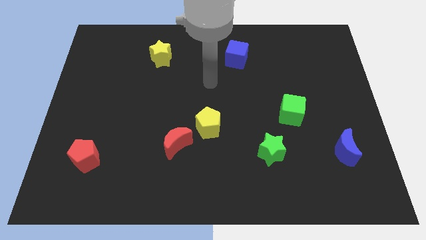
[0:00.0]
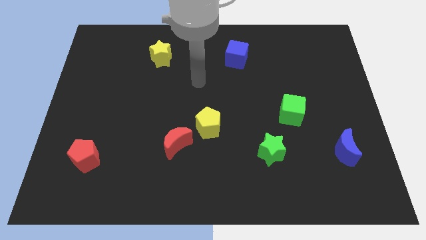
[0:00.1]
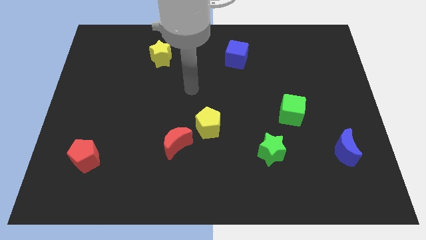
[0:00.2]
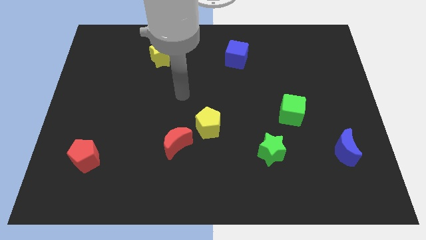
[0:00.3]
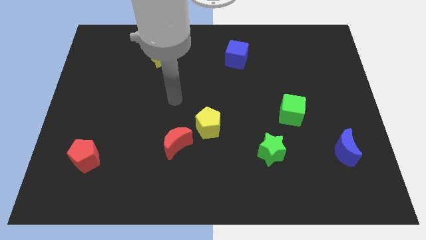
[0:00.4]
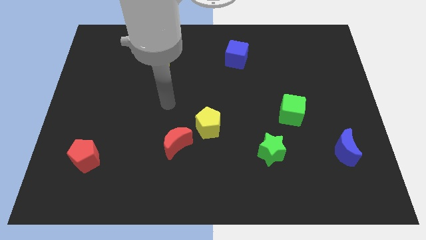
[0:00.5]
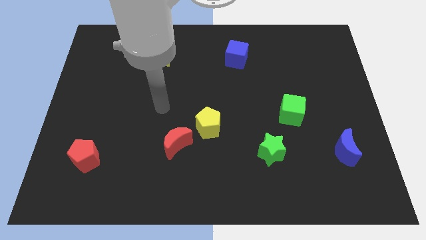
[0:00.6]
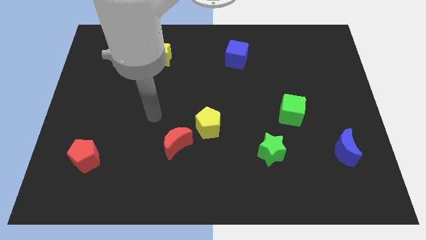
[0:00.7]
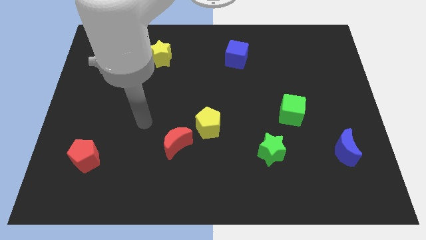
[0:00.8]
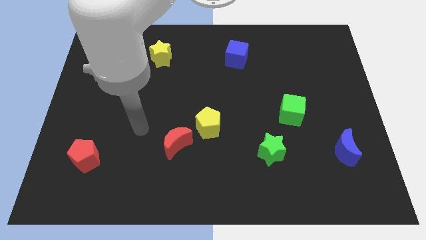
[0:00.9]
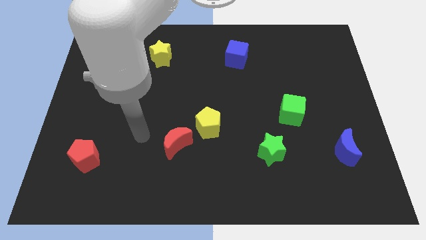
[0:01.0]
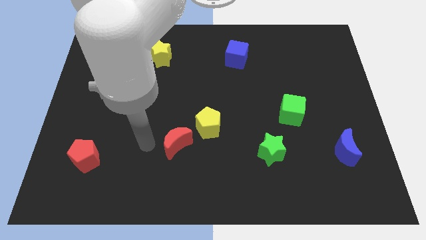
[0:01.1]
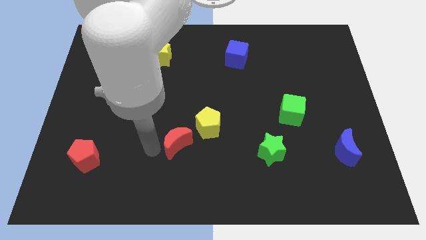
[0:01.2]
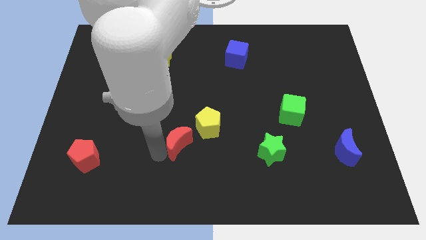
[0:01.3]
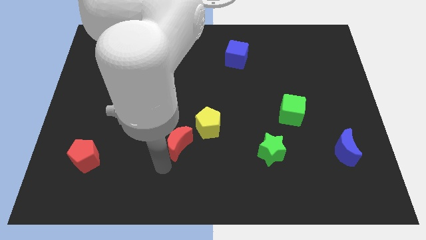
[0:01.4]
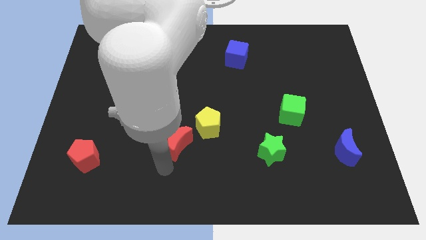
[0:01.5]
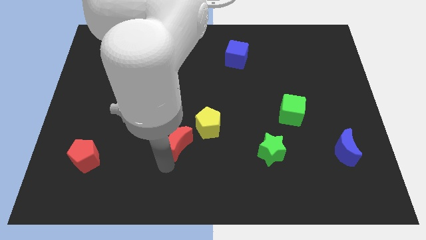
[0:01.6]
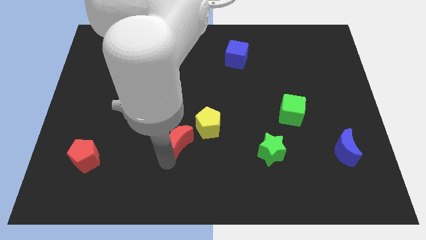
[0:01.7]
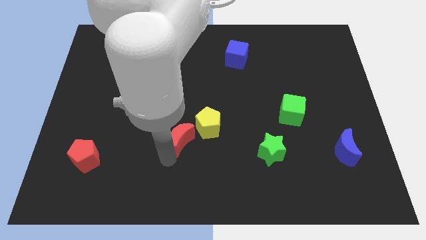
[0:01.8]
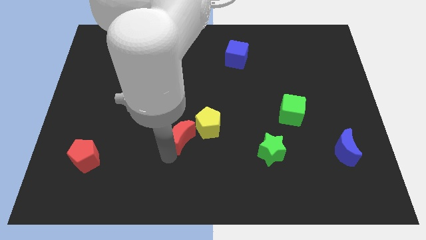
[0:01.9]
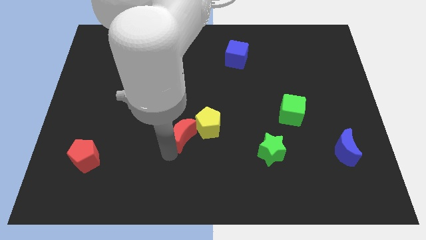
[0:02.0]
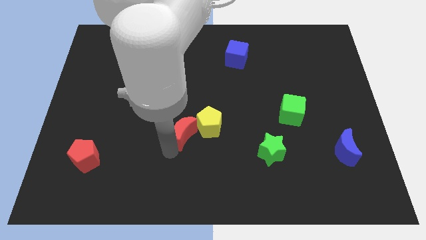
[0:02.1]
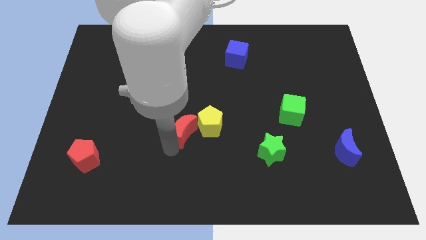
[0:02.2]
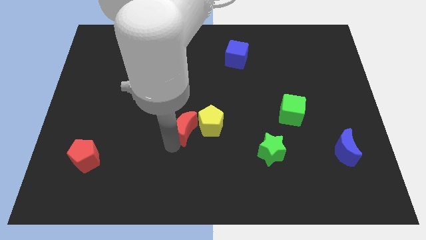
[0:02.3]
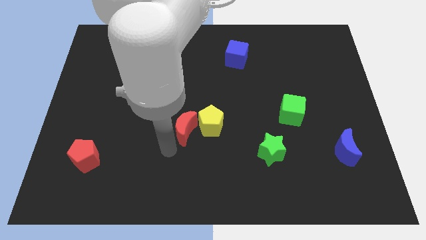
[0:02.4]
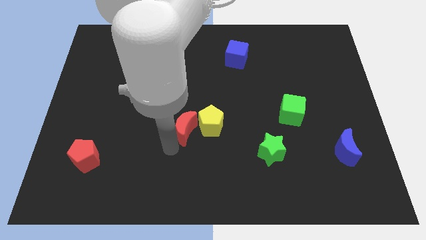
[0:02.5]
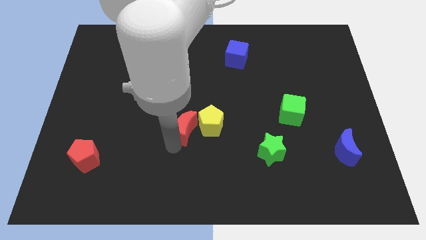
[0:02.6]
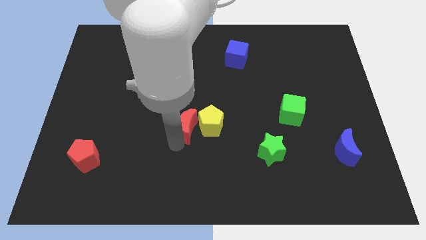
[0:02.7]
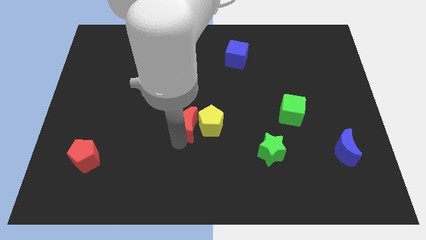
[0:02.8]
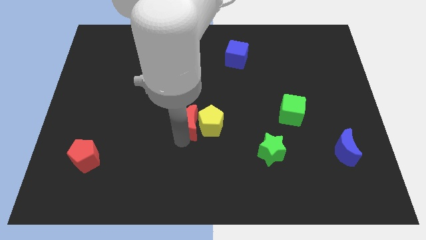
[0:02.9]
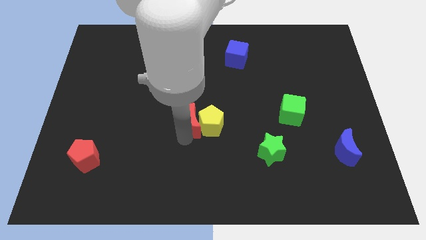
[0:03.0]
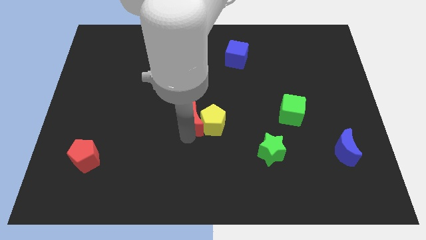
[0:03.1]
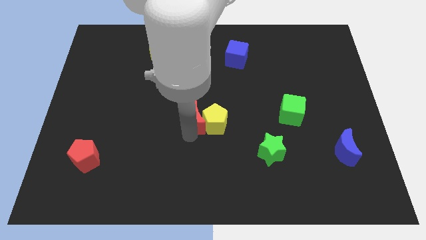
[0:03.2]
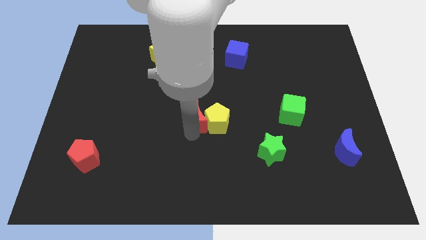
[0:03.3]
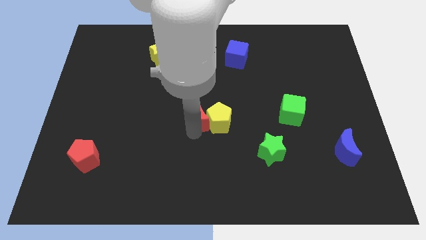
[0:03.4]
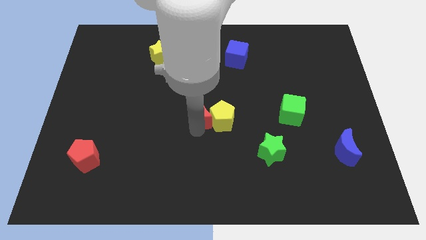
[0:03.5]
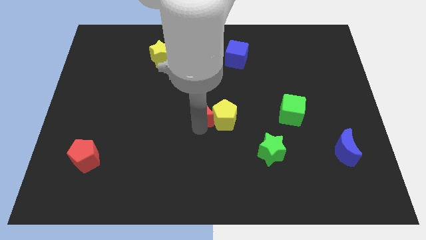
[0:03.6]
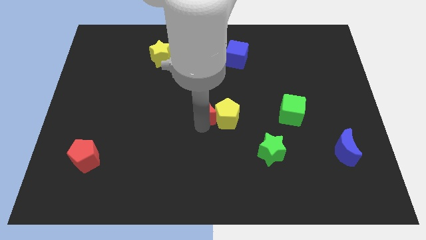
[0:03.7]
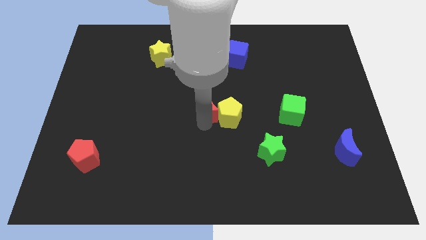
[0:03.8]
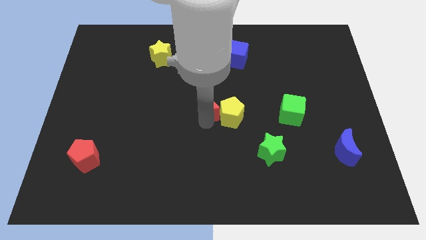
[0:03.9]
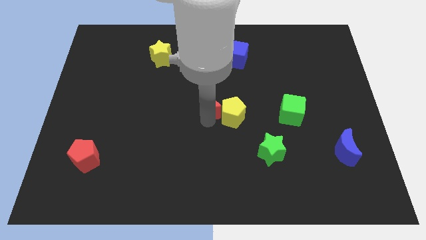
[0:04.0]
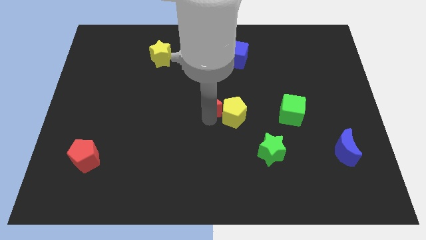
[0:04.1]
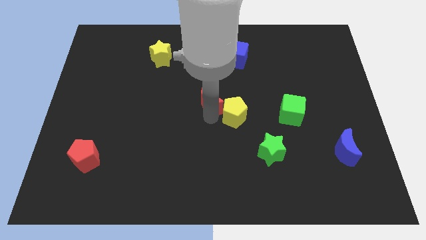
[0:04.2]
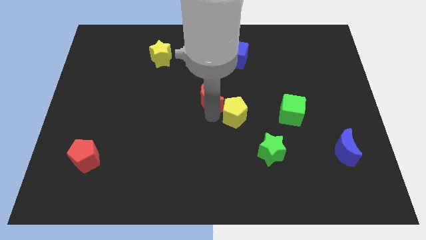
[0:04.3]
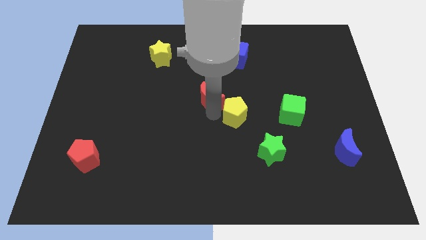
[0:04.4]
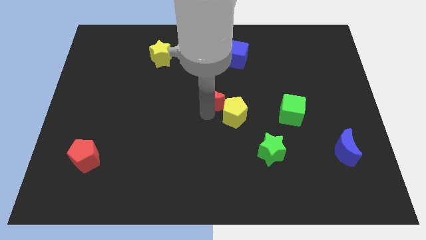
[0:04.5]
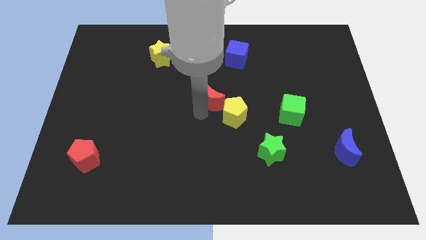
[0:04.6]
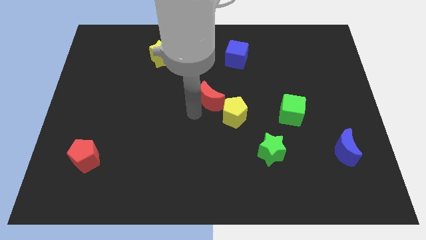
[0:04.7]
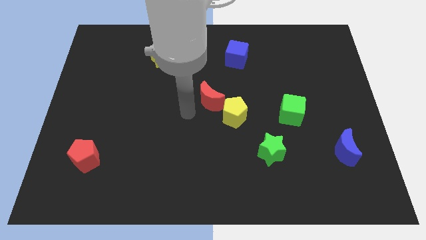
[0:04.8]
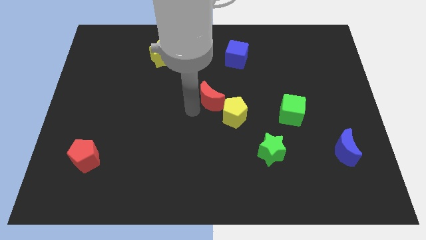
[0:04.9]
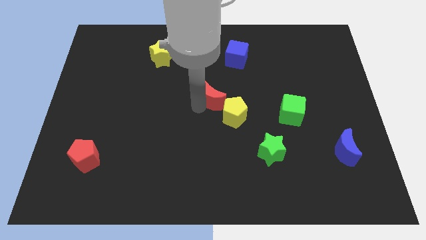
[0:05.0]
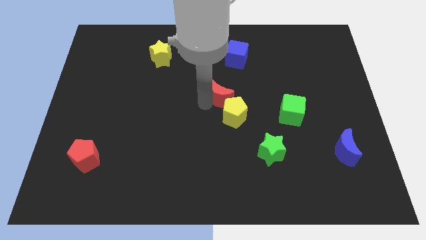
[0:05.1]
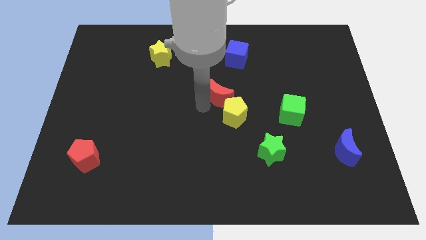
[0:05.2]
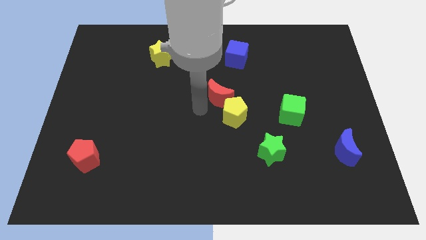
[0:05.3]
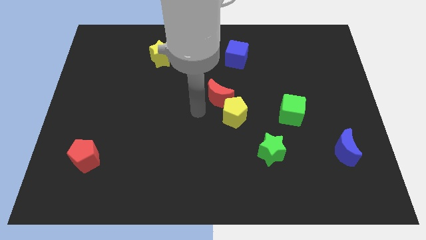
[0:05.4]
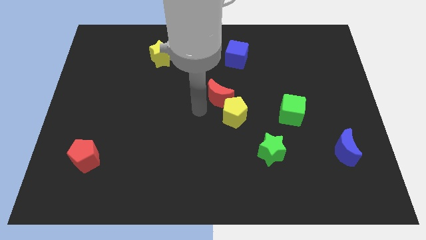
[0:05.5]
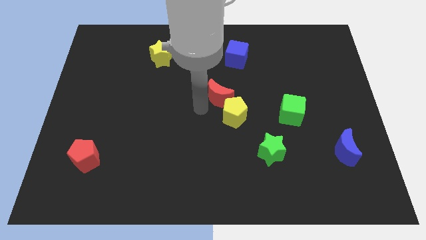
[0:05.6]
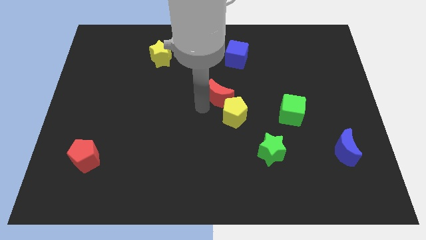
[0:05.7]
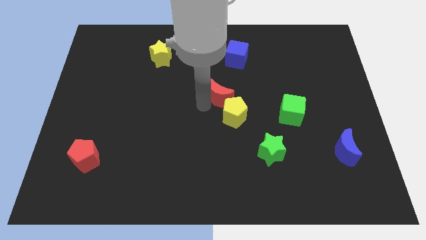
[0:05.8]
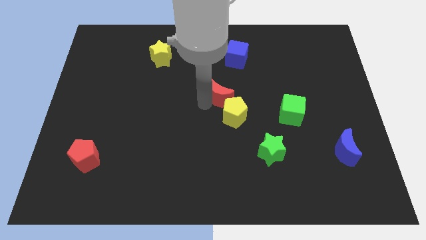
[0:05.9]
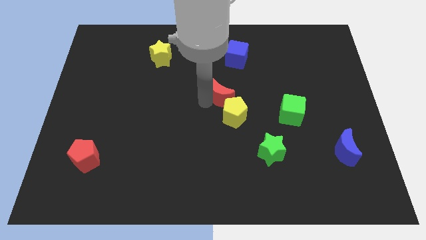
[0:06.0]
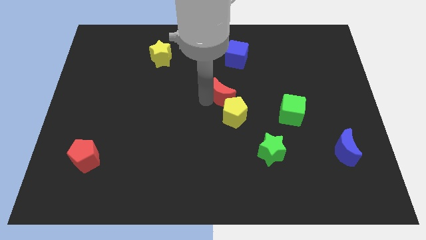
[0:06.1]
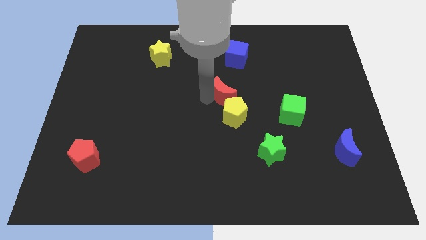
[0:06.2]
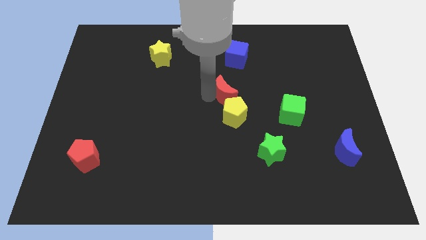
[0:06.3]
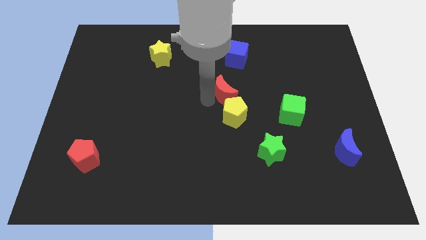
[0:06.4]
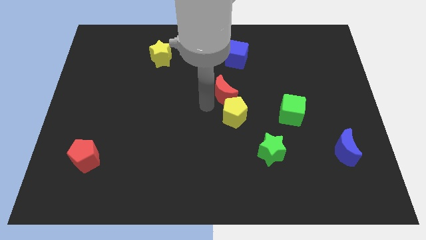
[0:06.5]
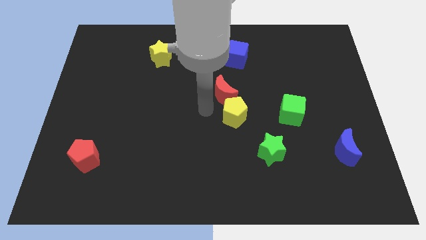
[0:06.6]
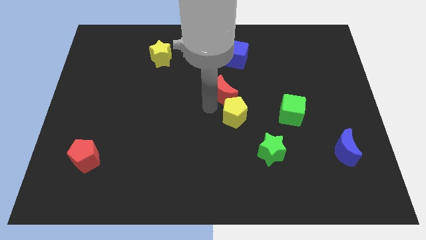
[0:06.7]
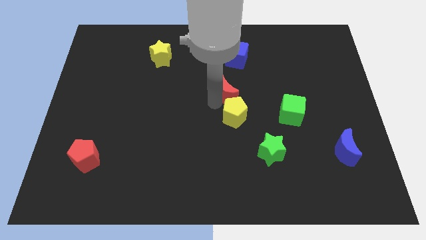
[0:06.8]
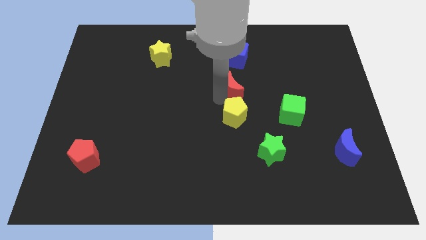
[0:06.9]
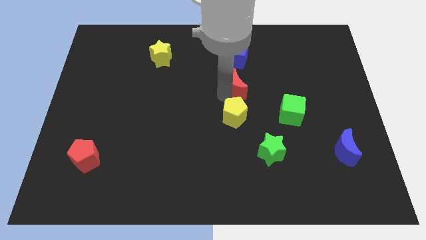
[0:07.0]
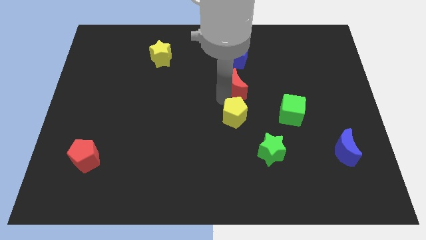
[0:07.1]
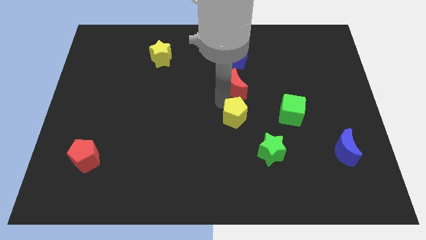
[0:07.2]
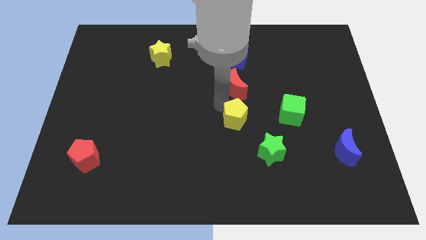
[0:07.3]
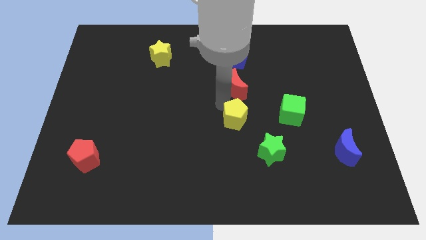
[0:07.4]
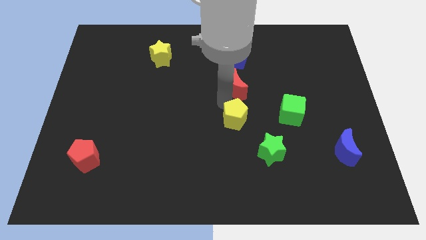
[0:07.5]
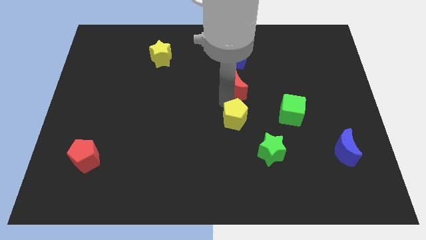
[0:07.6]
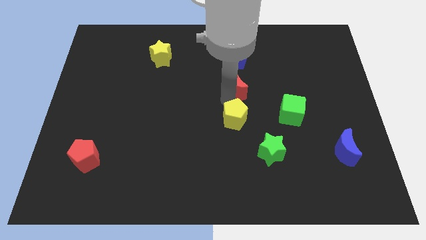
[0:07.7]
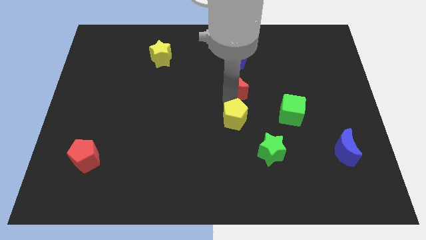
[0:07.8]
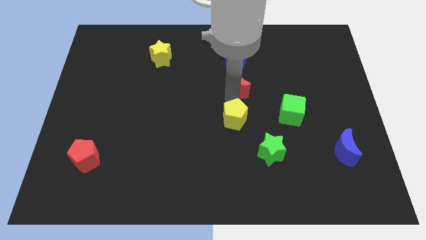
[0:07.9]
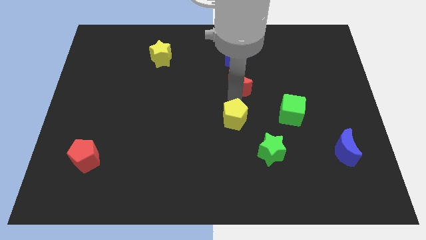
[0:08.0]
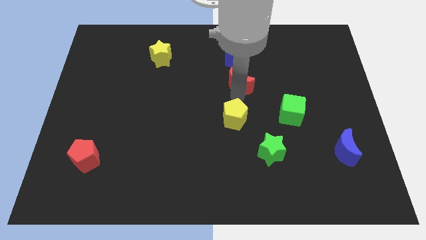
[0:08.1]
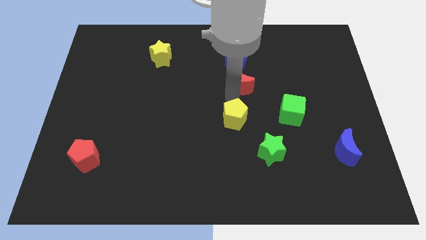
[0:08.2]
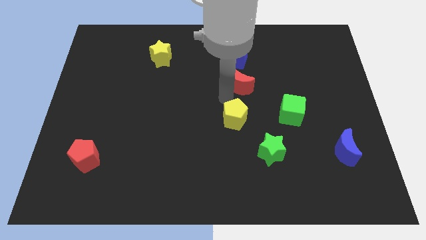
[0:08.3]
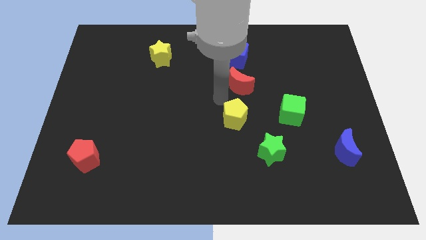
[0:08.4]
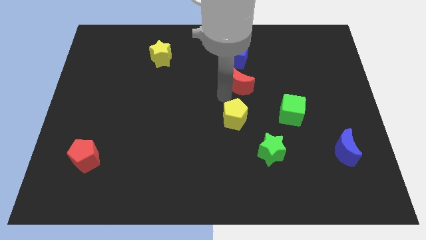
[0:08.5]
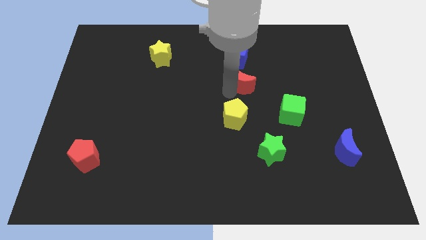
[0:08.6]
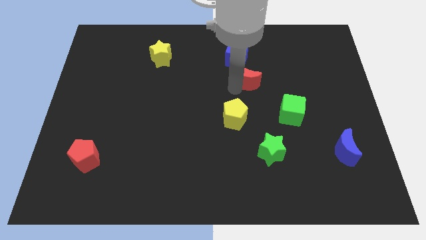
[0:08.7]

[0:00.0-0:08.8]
slide the red moon to the bottom right of the blue cube
